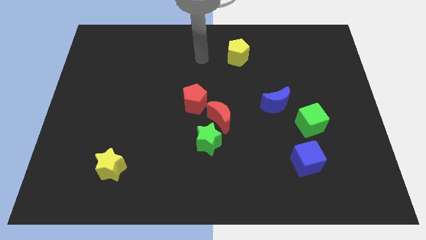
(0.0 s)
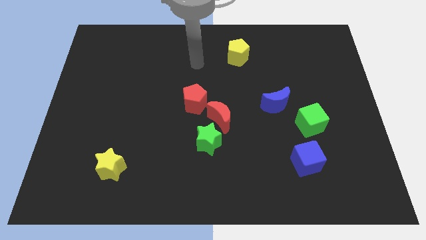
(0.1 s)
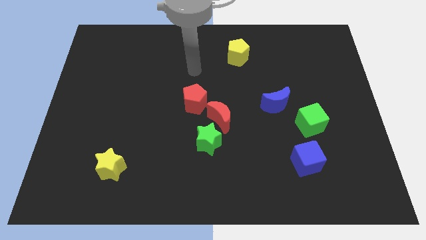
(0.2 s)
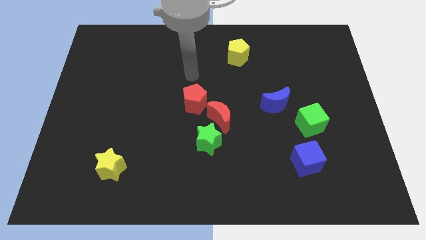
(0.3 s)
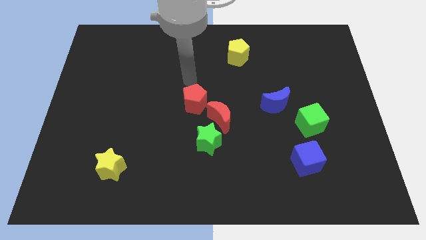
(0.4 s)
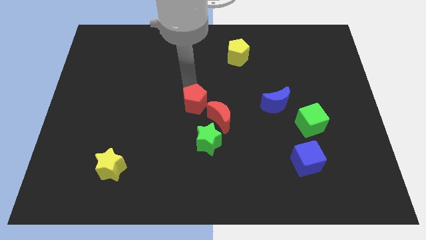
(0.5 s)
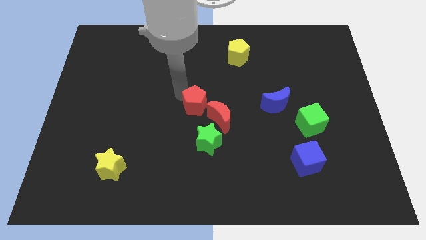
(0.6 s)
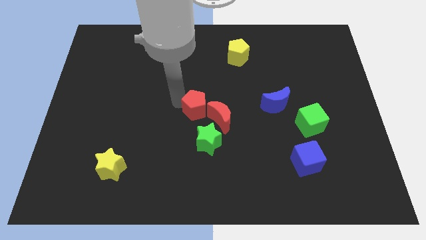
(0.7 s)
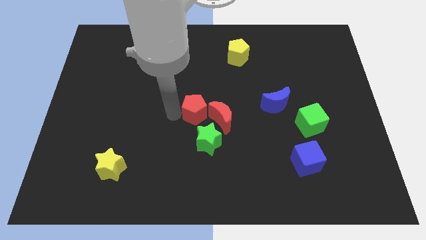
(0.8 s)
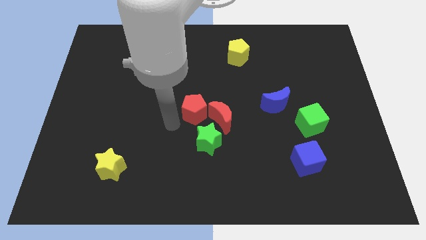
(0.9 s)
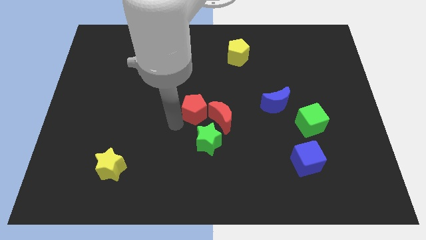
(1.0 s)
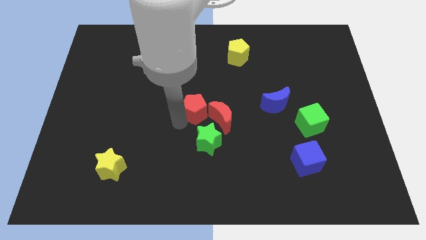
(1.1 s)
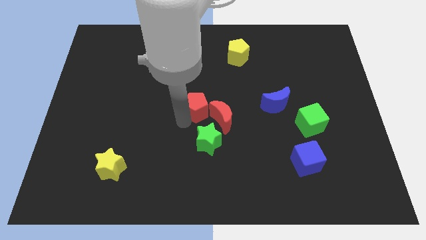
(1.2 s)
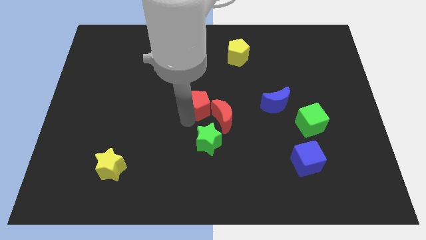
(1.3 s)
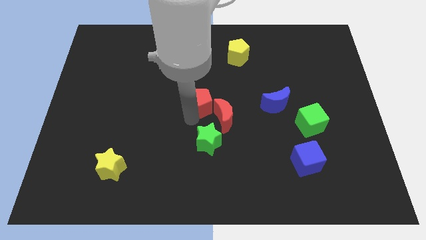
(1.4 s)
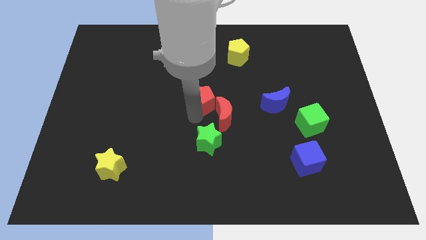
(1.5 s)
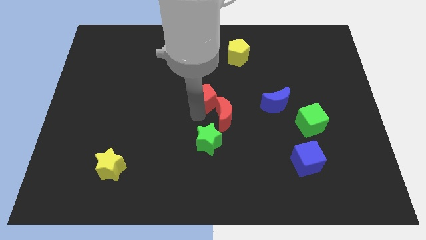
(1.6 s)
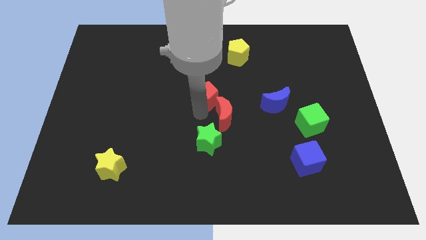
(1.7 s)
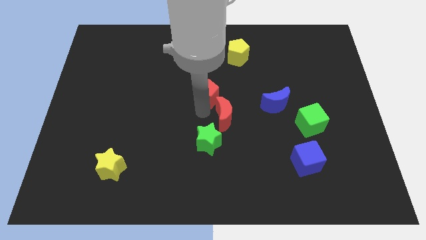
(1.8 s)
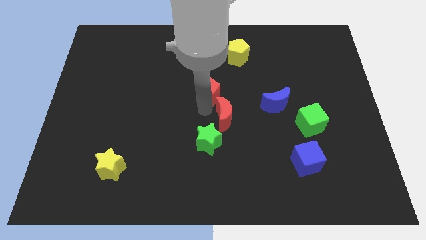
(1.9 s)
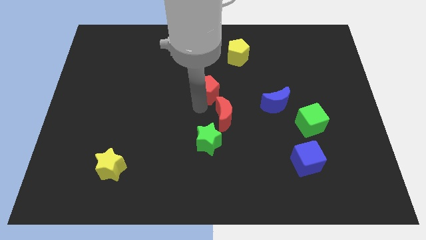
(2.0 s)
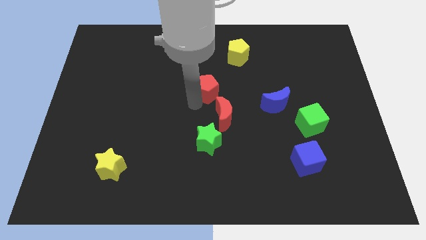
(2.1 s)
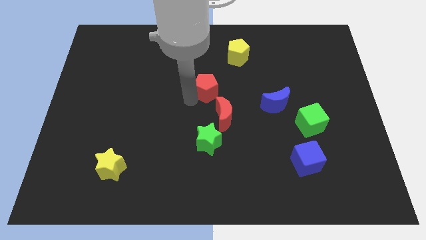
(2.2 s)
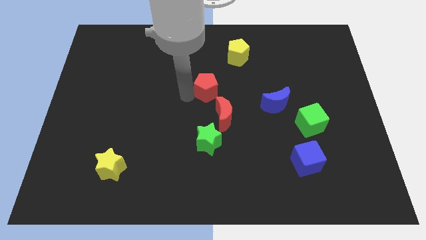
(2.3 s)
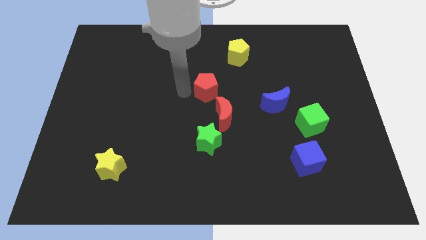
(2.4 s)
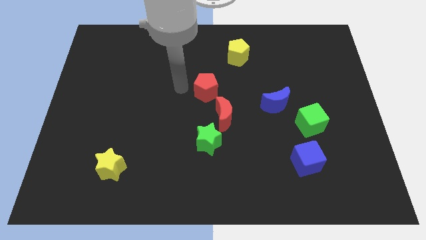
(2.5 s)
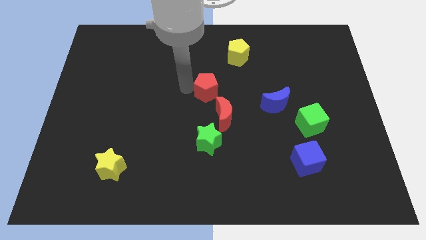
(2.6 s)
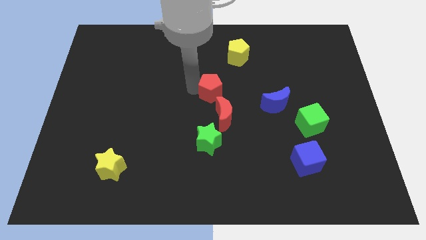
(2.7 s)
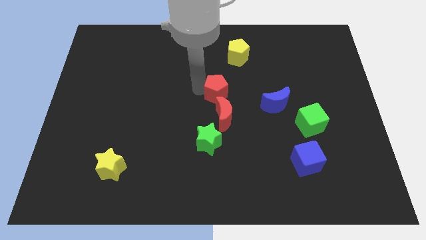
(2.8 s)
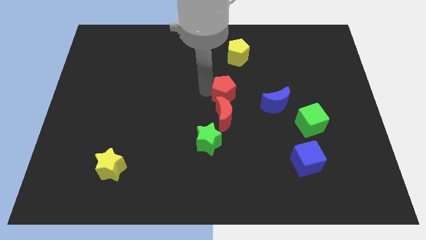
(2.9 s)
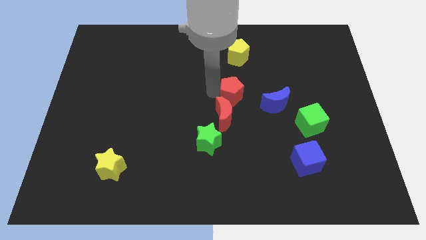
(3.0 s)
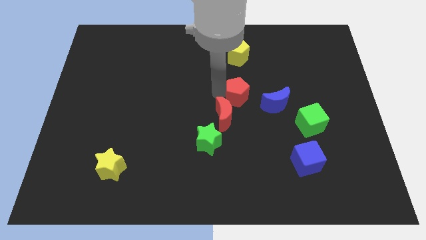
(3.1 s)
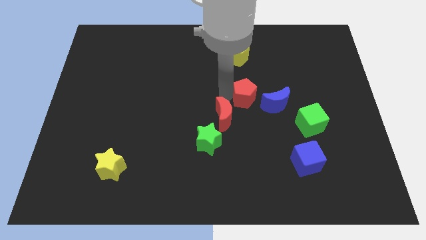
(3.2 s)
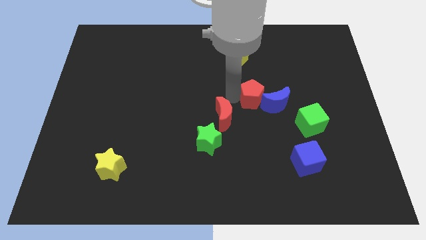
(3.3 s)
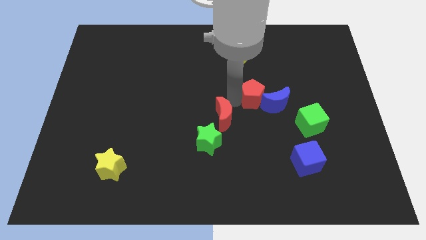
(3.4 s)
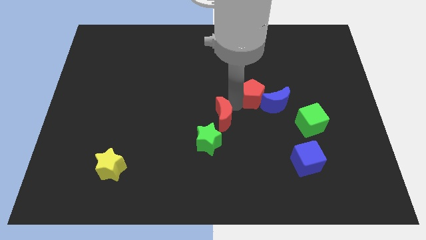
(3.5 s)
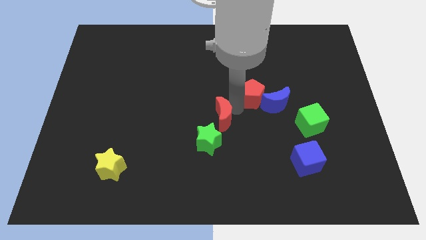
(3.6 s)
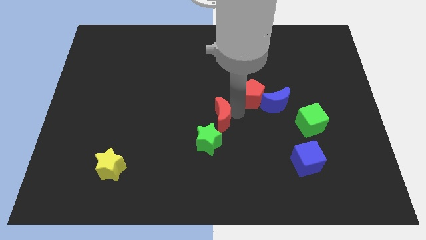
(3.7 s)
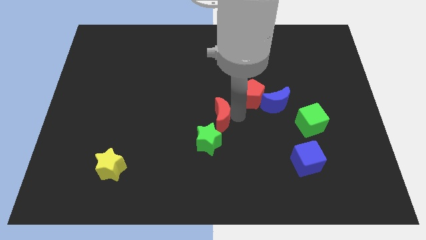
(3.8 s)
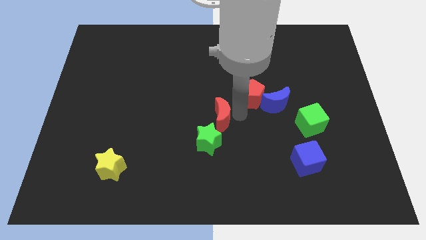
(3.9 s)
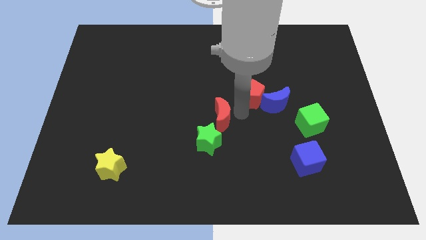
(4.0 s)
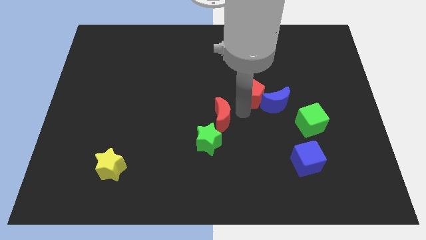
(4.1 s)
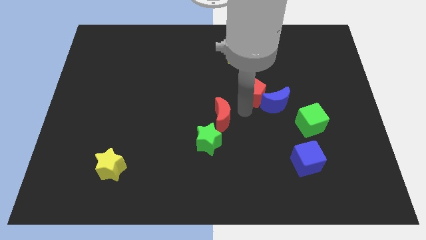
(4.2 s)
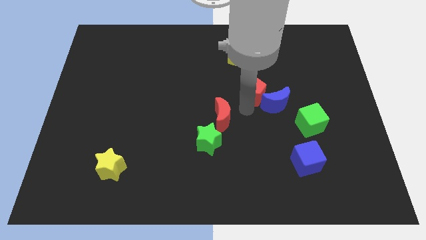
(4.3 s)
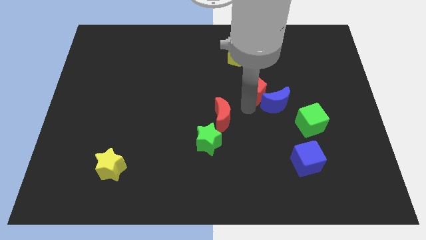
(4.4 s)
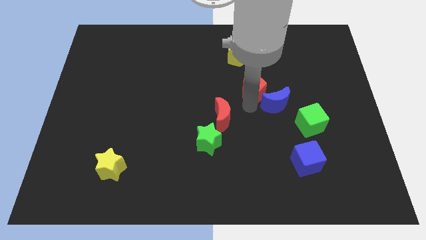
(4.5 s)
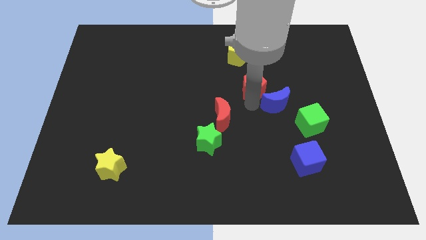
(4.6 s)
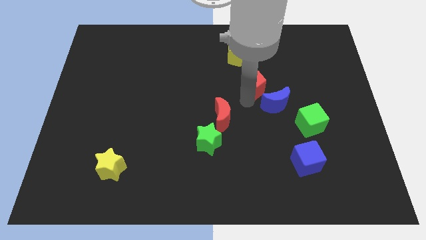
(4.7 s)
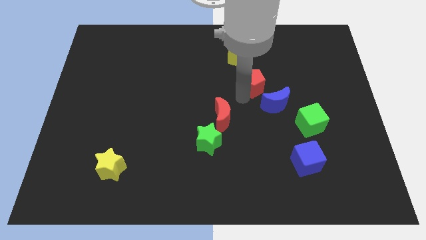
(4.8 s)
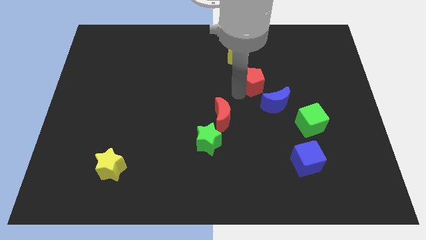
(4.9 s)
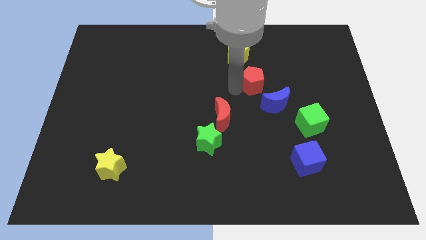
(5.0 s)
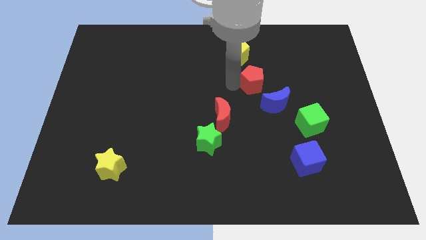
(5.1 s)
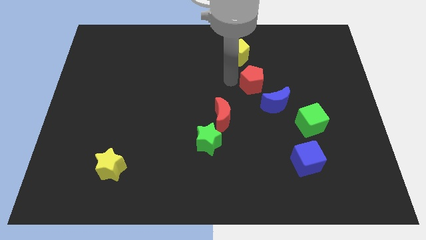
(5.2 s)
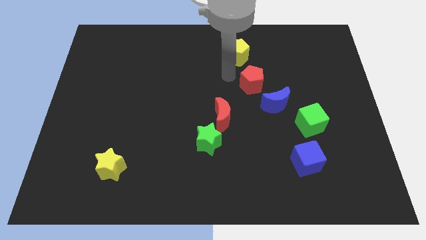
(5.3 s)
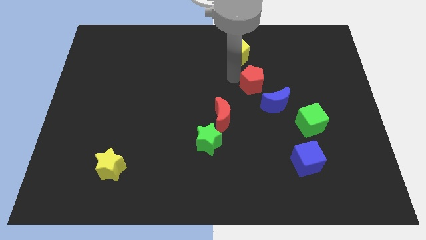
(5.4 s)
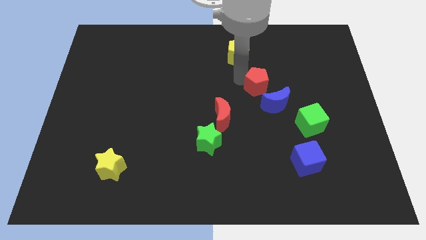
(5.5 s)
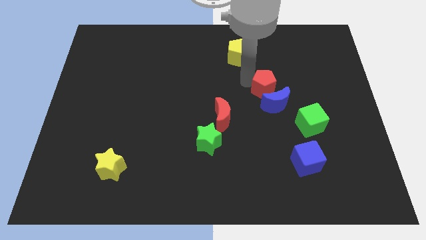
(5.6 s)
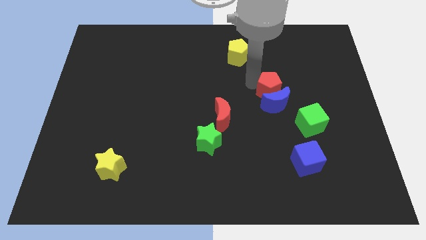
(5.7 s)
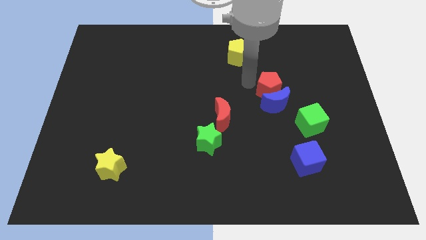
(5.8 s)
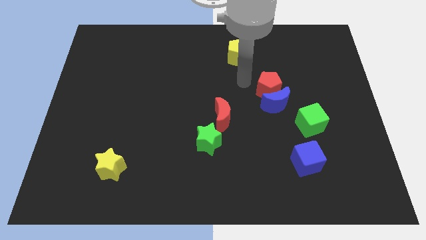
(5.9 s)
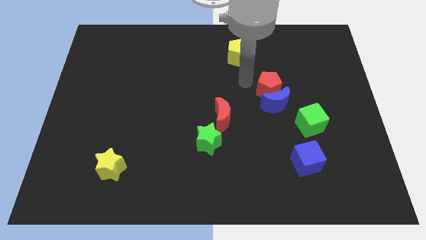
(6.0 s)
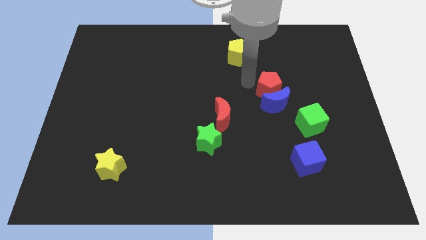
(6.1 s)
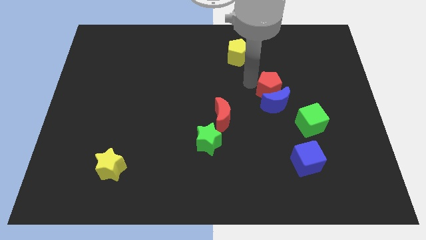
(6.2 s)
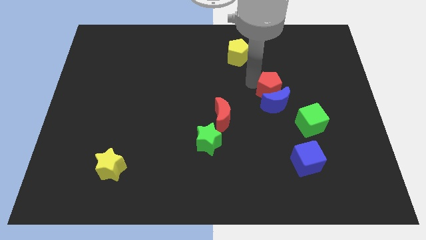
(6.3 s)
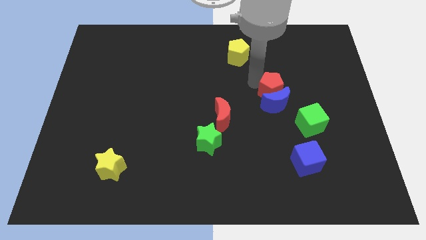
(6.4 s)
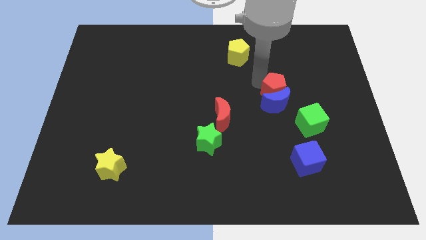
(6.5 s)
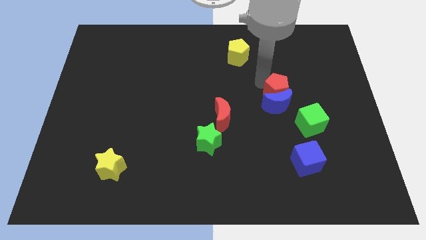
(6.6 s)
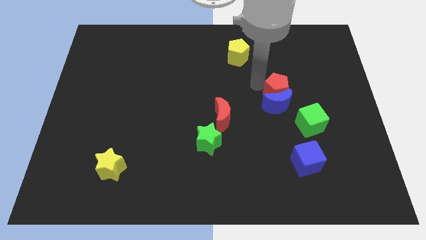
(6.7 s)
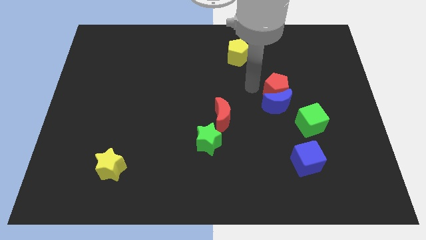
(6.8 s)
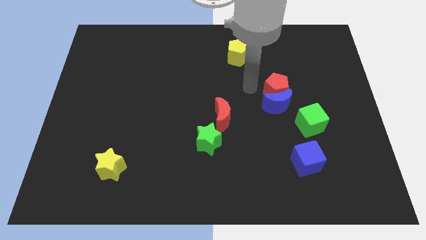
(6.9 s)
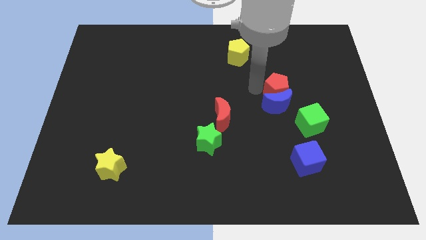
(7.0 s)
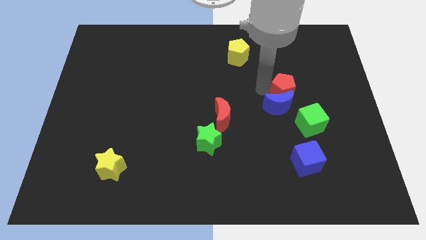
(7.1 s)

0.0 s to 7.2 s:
push the red pentagon to the right

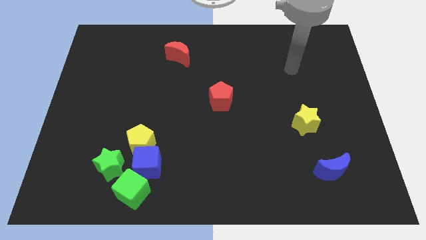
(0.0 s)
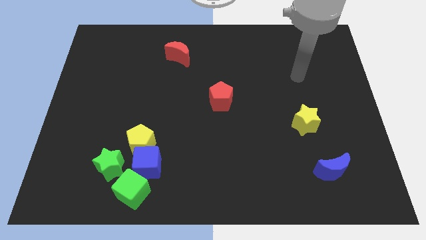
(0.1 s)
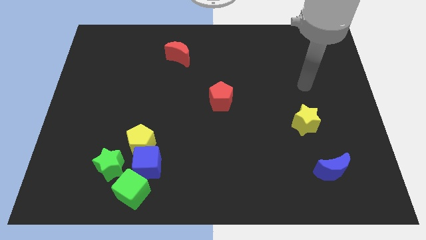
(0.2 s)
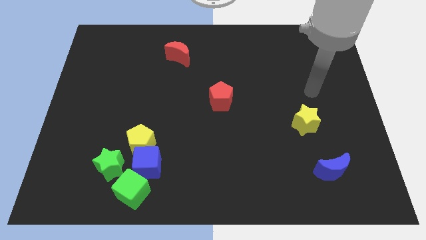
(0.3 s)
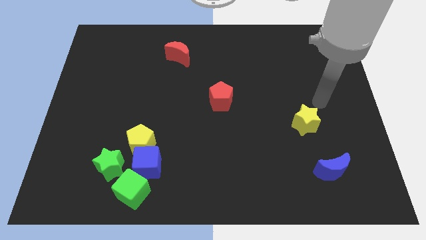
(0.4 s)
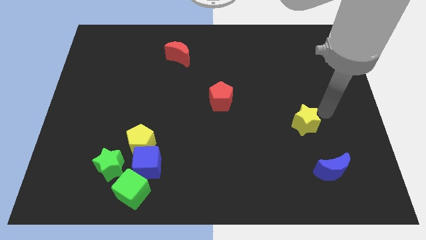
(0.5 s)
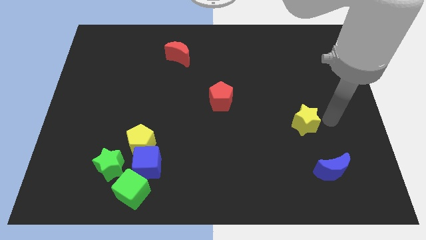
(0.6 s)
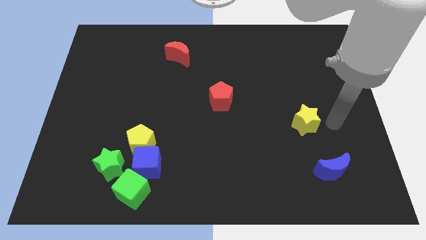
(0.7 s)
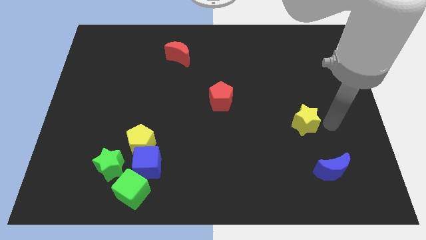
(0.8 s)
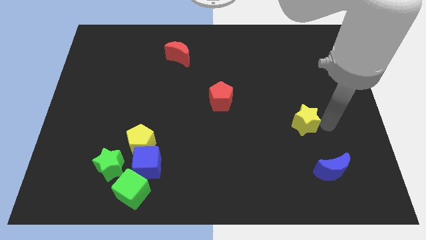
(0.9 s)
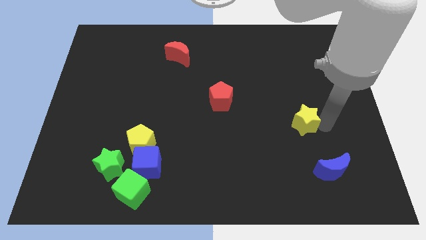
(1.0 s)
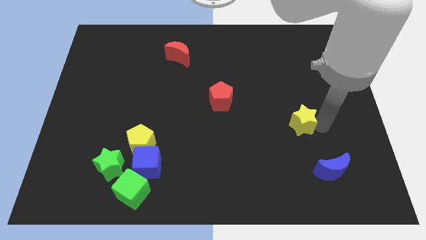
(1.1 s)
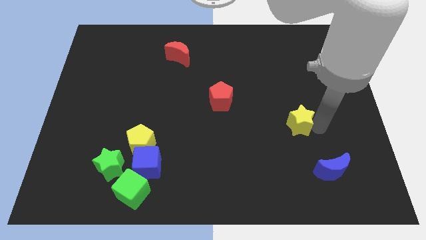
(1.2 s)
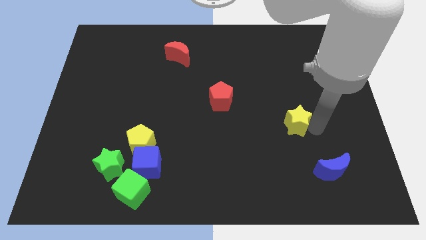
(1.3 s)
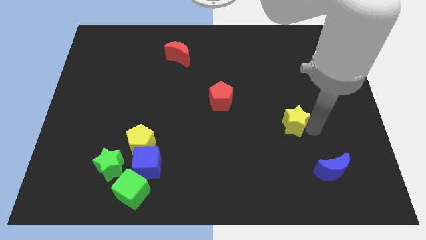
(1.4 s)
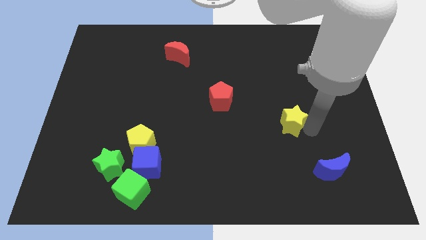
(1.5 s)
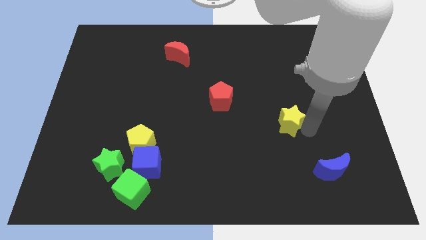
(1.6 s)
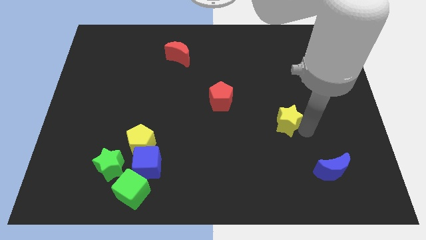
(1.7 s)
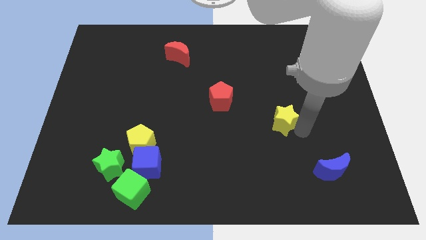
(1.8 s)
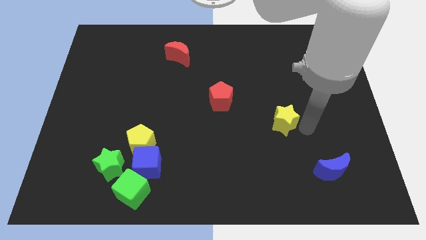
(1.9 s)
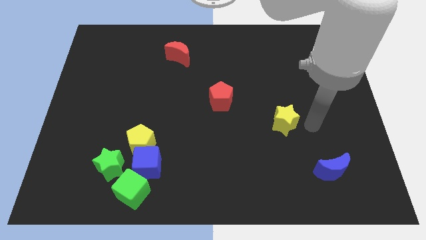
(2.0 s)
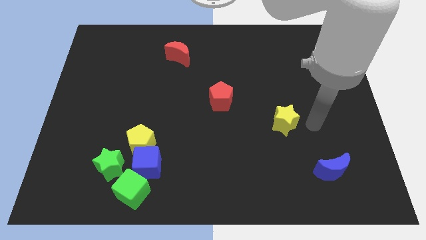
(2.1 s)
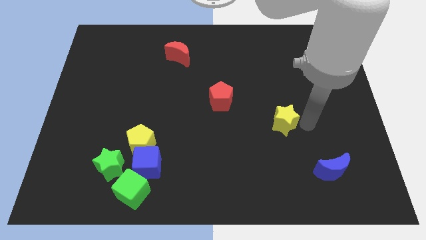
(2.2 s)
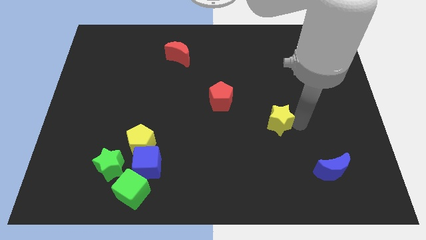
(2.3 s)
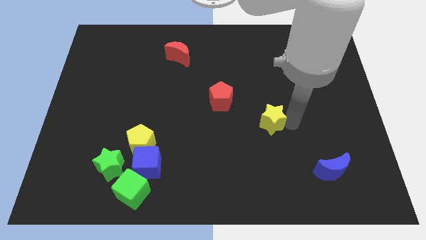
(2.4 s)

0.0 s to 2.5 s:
move the yellow star left a little
